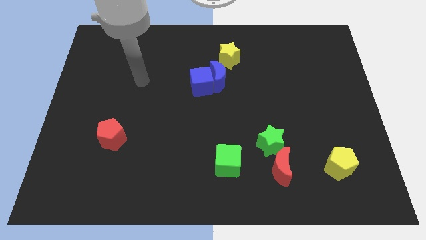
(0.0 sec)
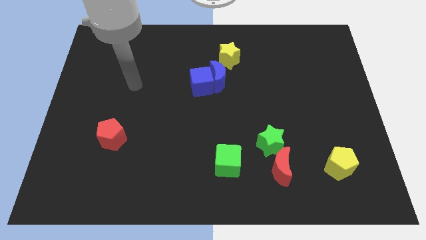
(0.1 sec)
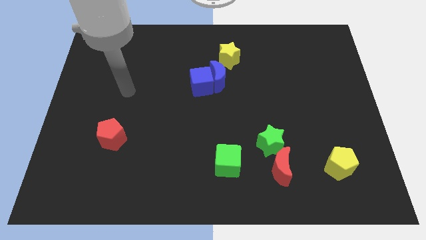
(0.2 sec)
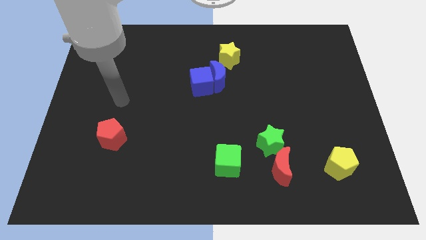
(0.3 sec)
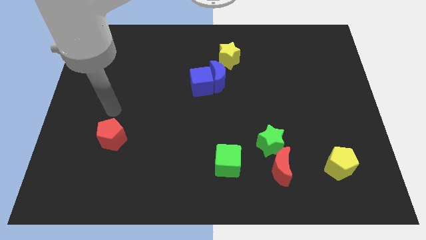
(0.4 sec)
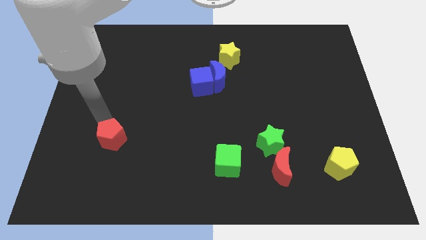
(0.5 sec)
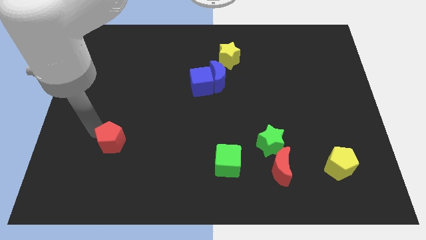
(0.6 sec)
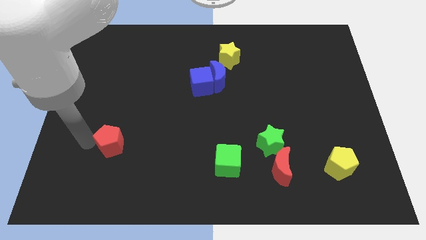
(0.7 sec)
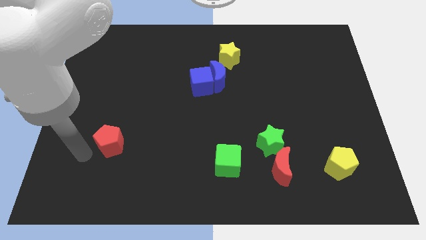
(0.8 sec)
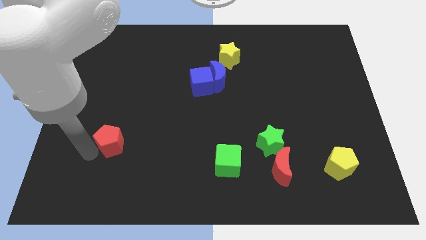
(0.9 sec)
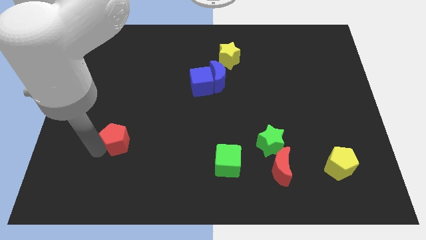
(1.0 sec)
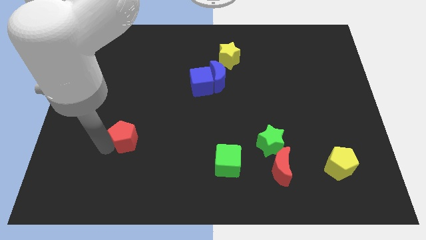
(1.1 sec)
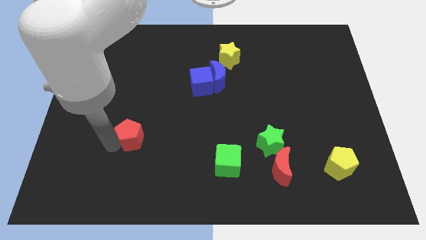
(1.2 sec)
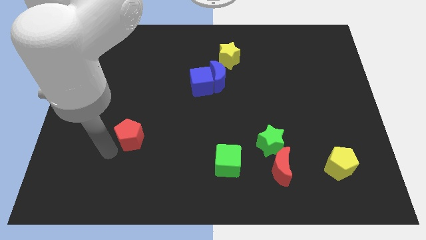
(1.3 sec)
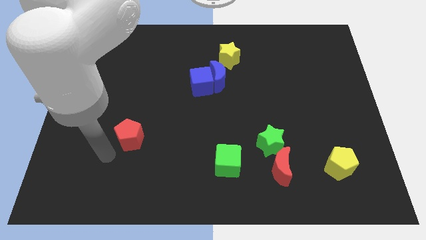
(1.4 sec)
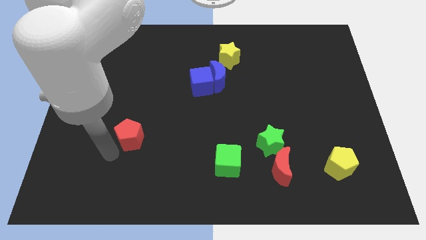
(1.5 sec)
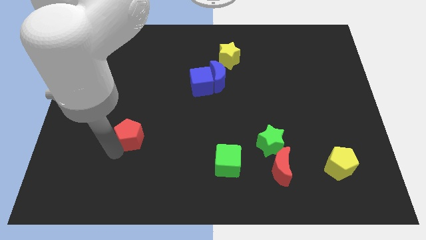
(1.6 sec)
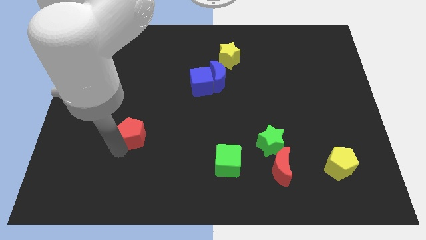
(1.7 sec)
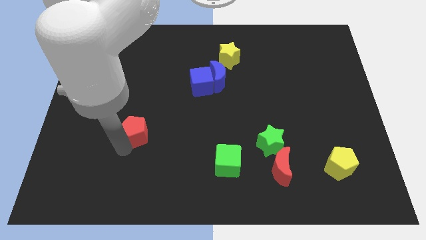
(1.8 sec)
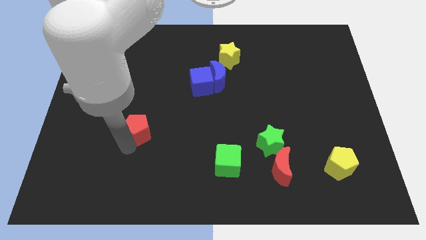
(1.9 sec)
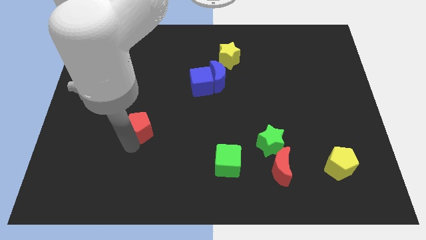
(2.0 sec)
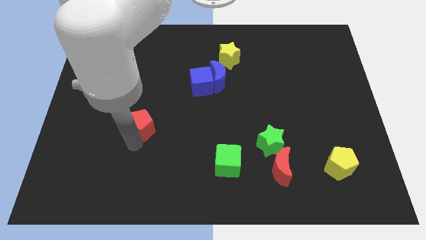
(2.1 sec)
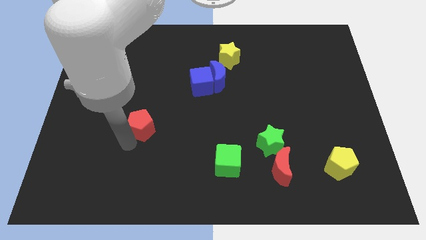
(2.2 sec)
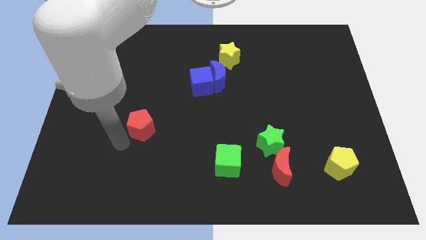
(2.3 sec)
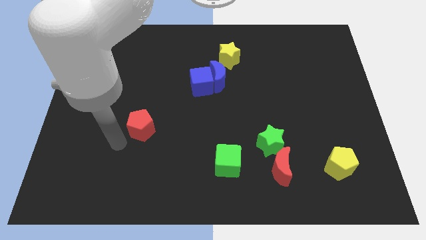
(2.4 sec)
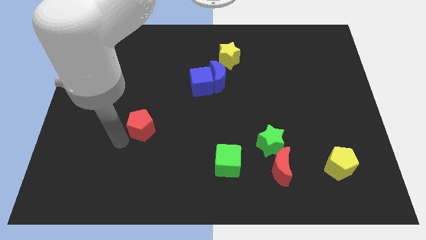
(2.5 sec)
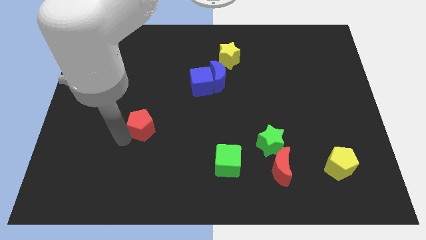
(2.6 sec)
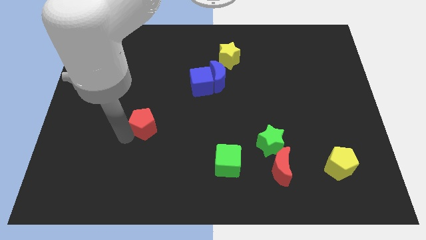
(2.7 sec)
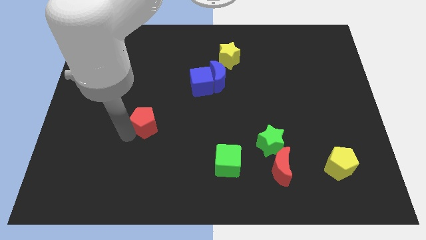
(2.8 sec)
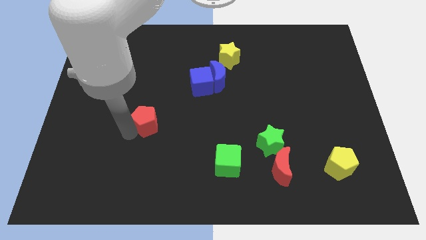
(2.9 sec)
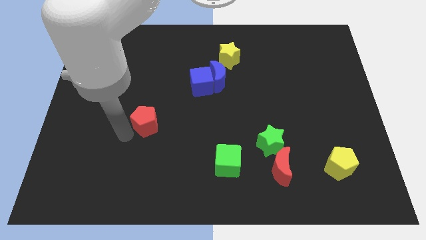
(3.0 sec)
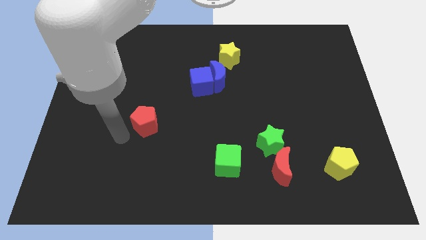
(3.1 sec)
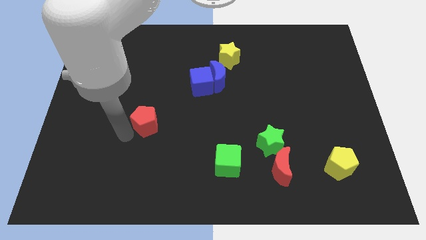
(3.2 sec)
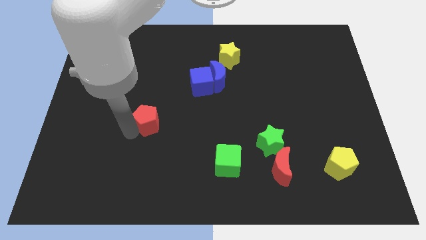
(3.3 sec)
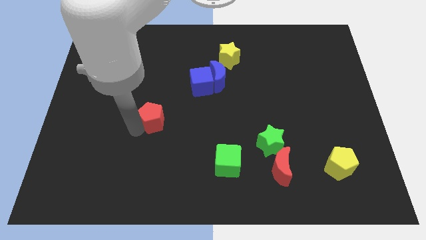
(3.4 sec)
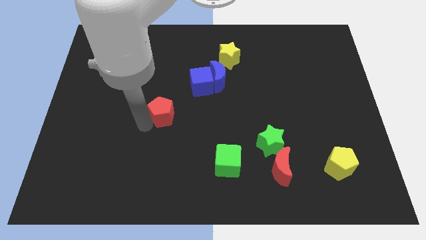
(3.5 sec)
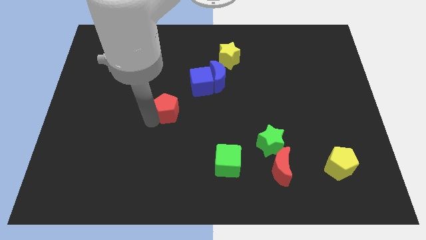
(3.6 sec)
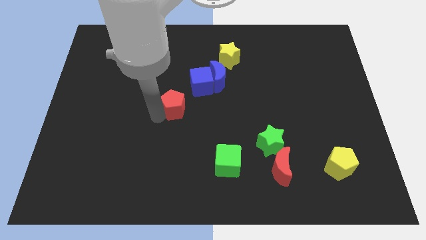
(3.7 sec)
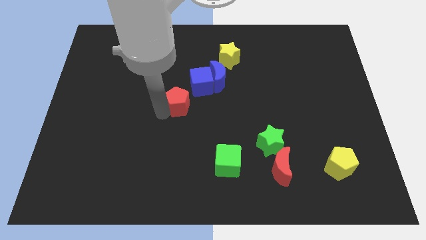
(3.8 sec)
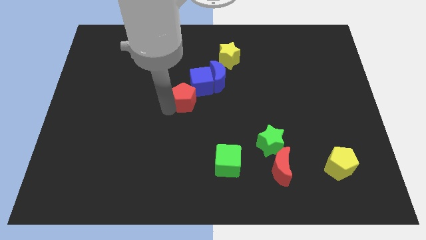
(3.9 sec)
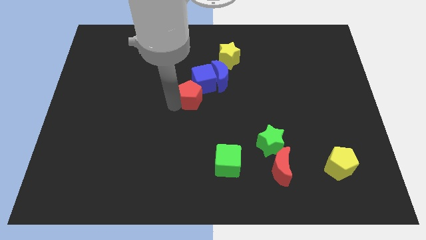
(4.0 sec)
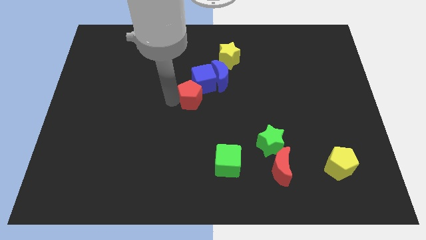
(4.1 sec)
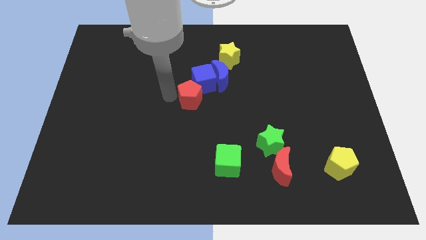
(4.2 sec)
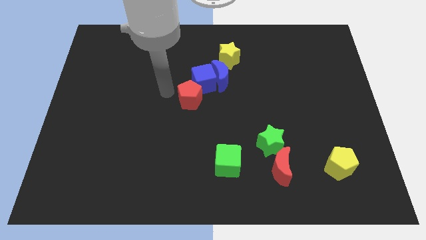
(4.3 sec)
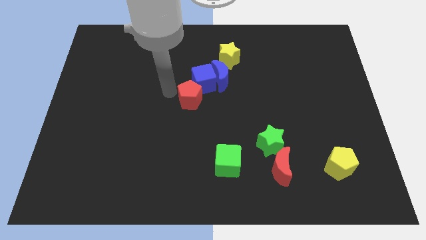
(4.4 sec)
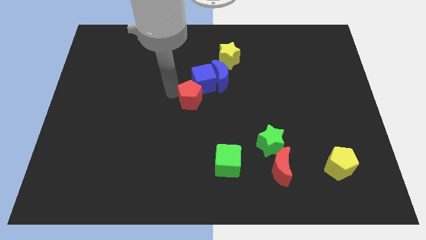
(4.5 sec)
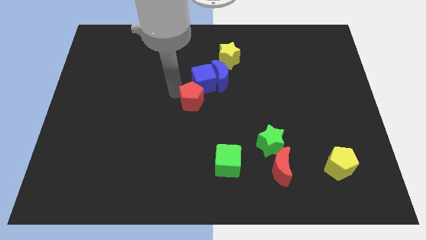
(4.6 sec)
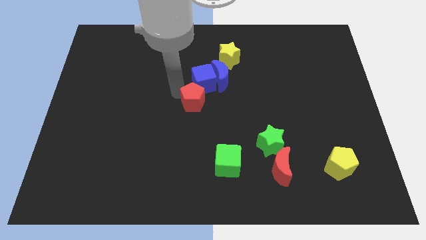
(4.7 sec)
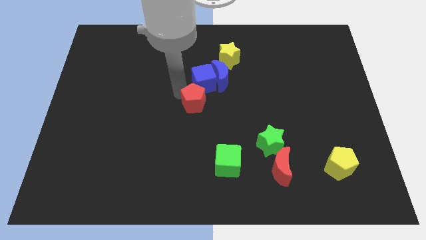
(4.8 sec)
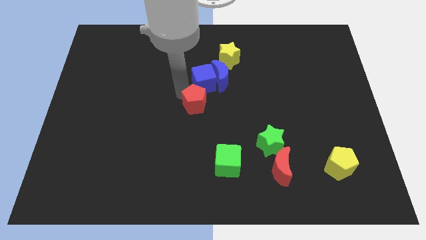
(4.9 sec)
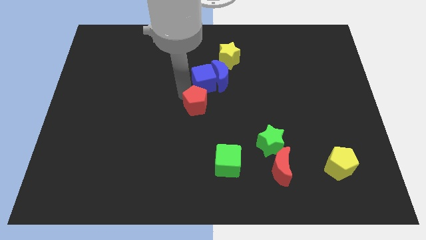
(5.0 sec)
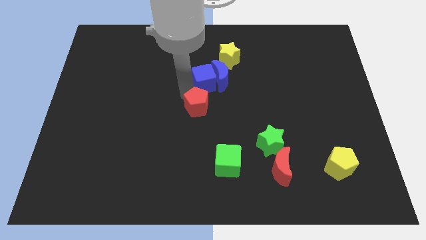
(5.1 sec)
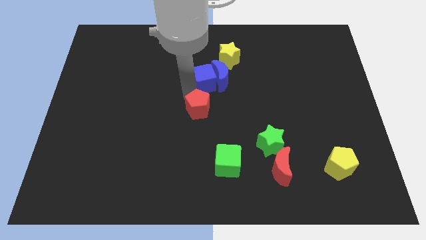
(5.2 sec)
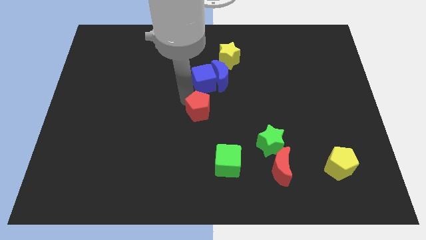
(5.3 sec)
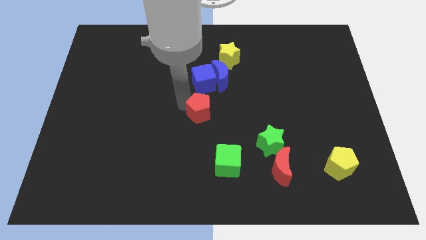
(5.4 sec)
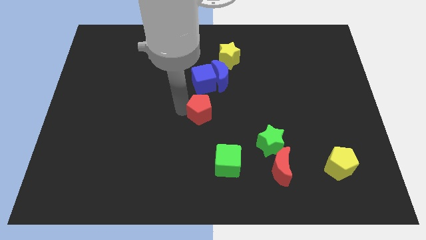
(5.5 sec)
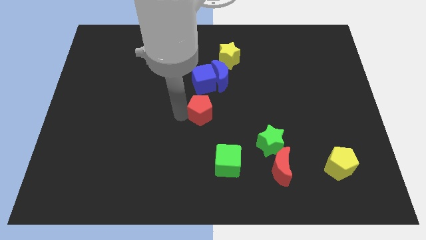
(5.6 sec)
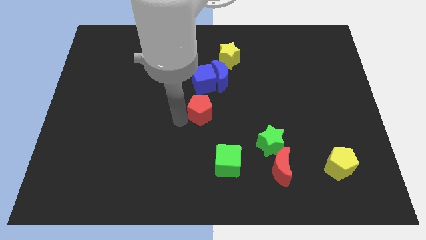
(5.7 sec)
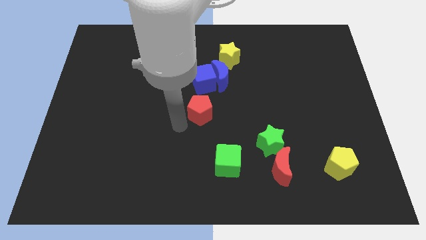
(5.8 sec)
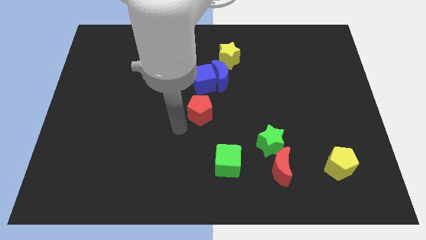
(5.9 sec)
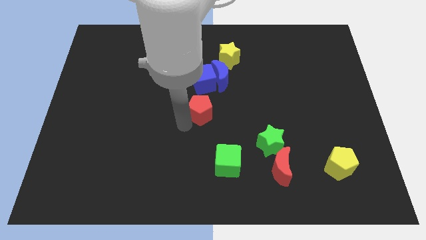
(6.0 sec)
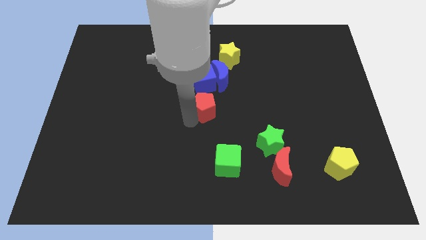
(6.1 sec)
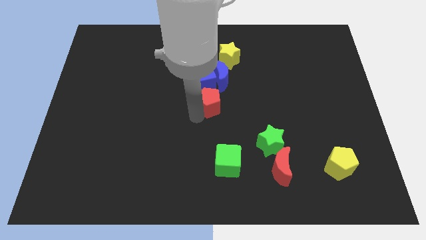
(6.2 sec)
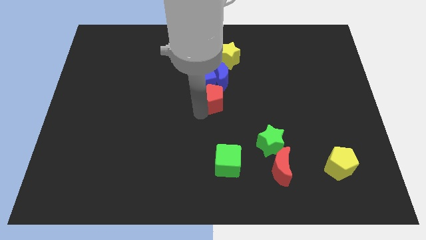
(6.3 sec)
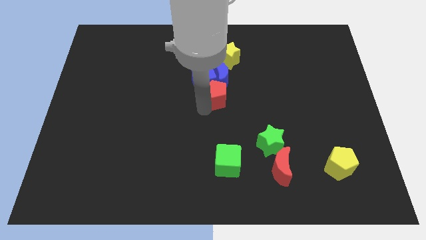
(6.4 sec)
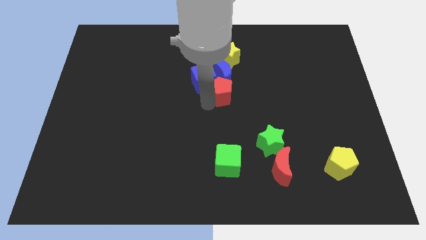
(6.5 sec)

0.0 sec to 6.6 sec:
put the red pentagon to the bottom right of the blue moon
